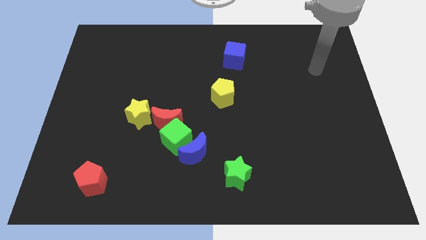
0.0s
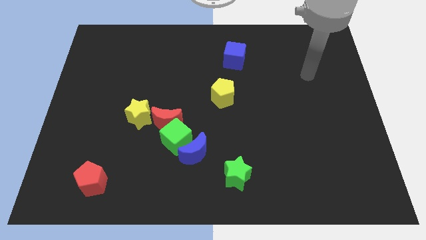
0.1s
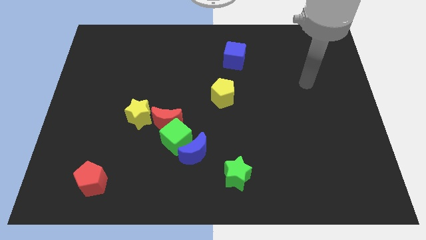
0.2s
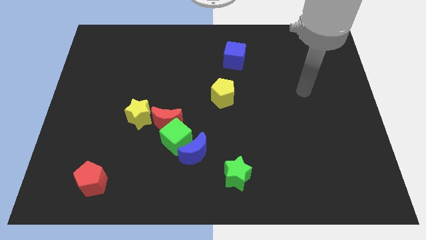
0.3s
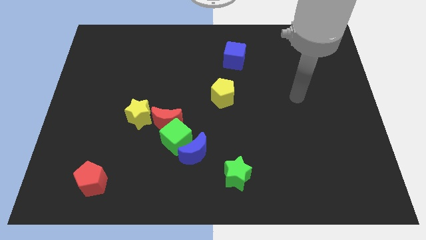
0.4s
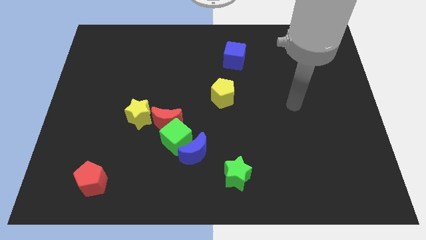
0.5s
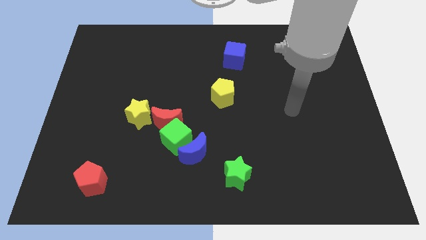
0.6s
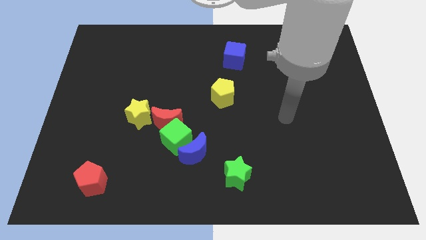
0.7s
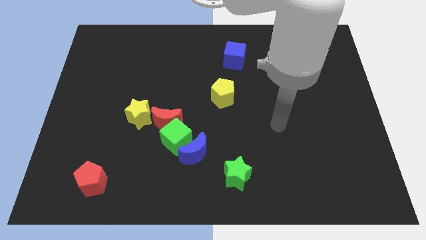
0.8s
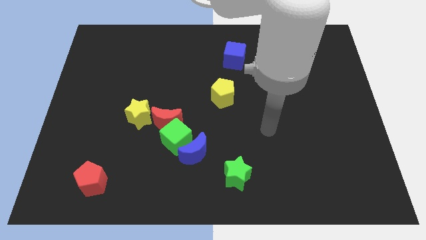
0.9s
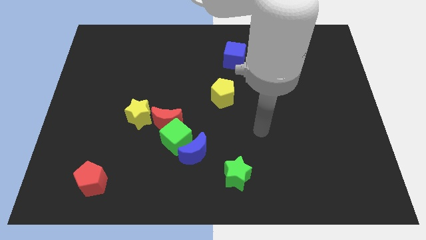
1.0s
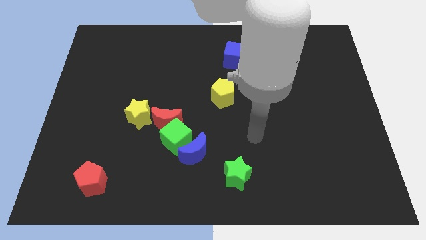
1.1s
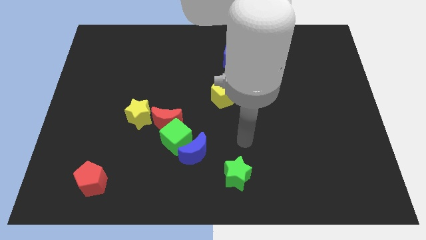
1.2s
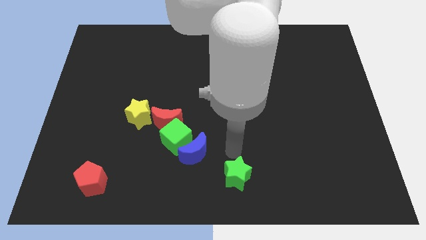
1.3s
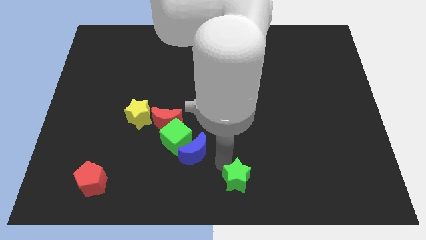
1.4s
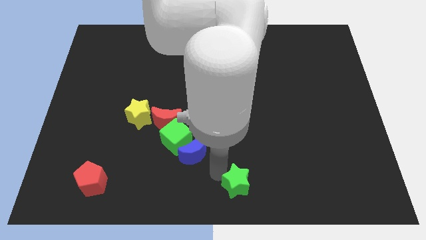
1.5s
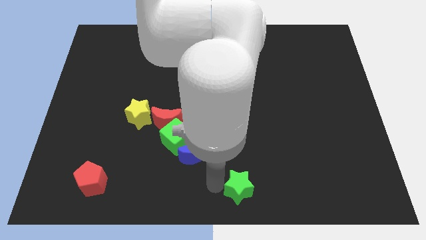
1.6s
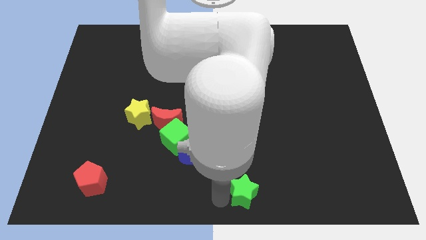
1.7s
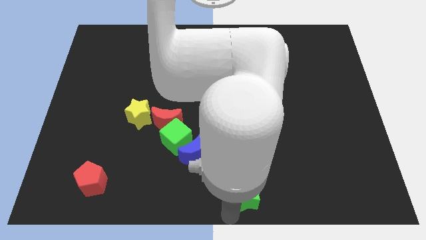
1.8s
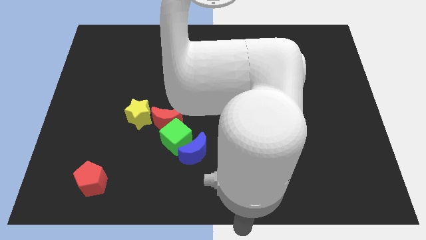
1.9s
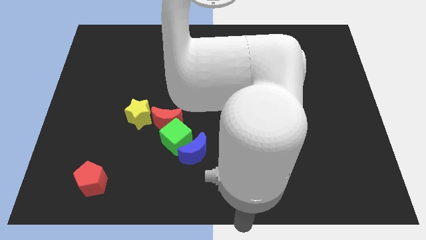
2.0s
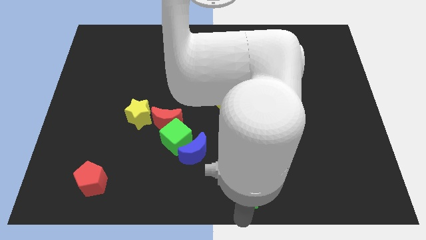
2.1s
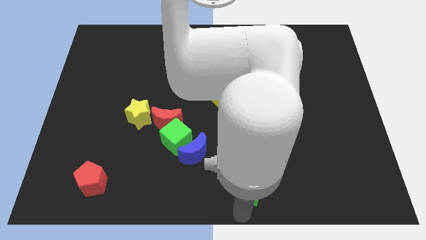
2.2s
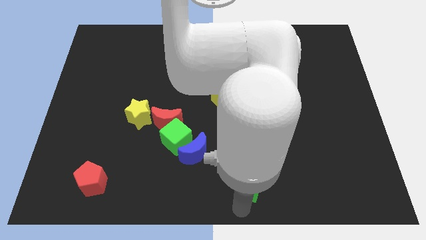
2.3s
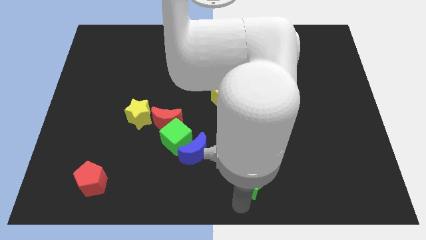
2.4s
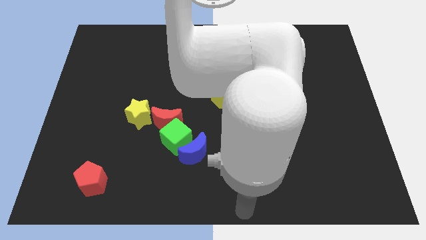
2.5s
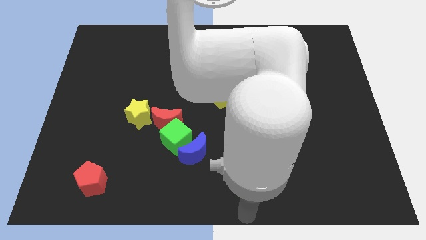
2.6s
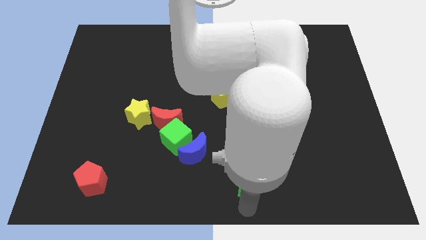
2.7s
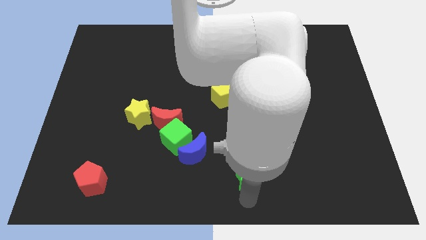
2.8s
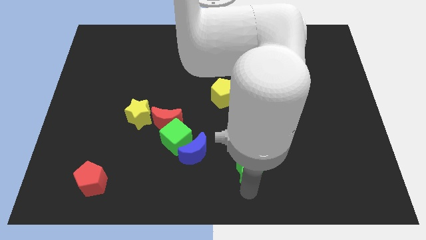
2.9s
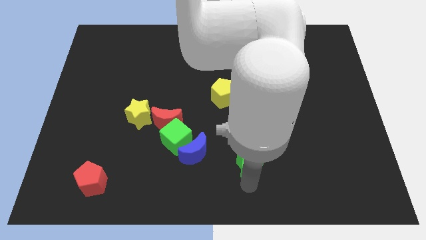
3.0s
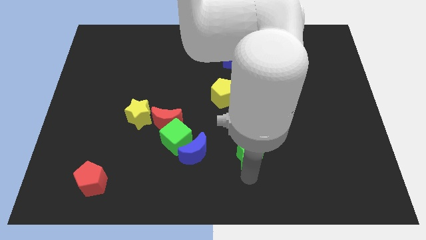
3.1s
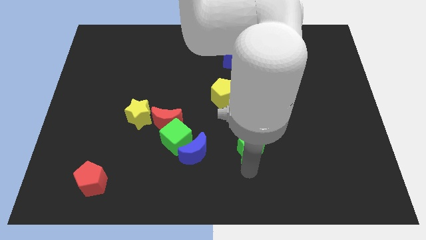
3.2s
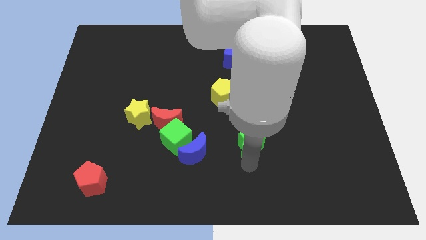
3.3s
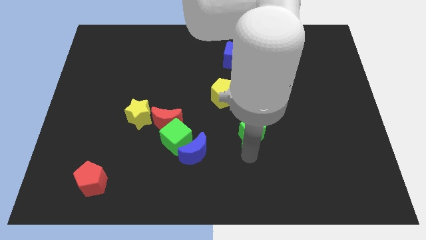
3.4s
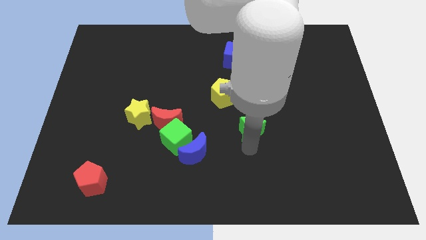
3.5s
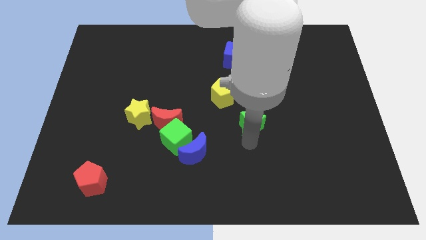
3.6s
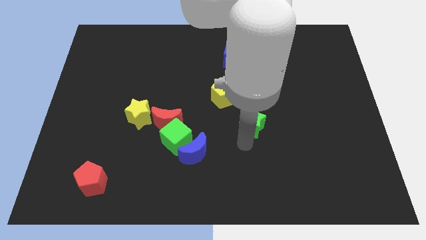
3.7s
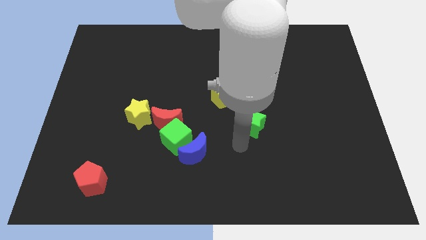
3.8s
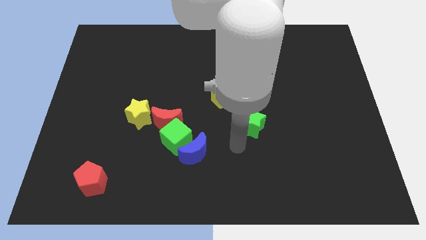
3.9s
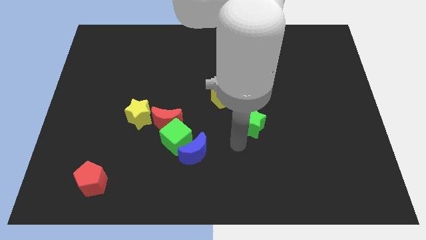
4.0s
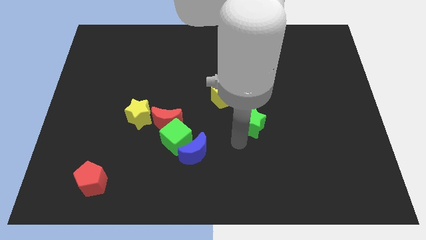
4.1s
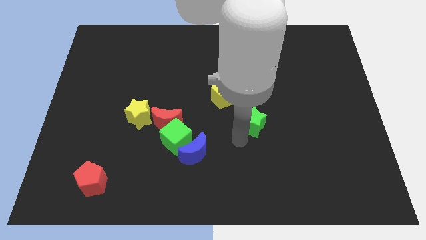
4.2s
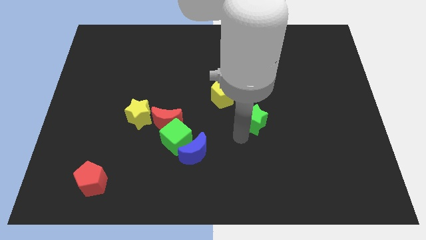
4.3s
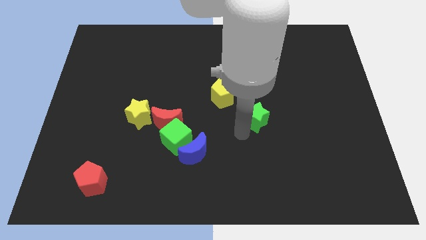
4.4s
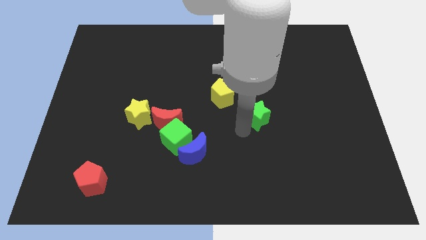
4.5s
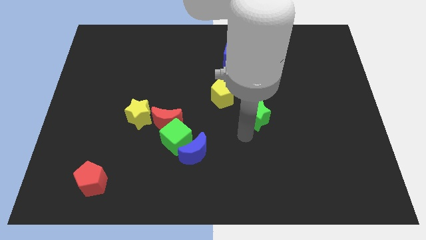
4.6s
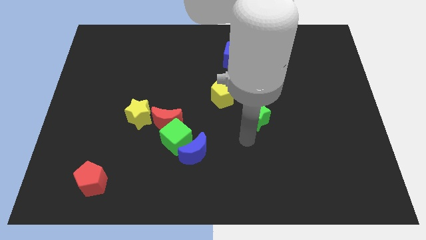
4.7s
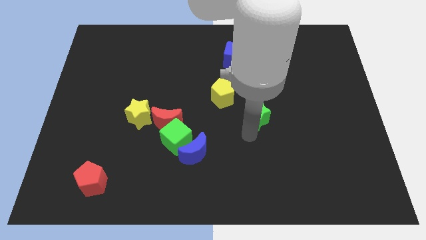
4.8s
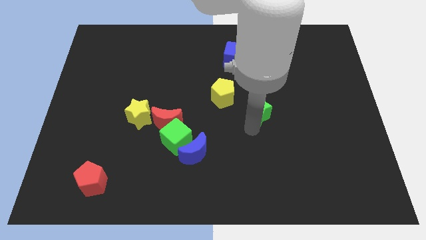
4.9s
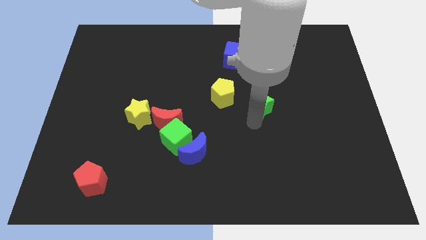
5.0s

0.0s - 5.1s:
slide the green star just right of the yellow pentagon

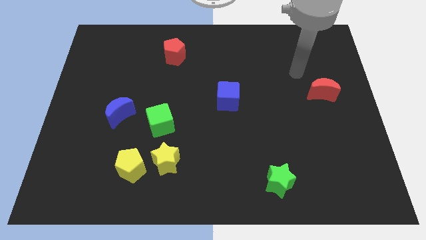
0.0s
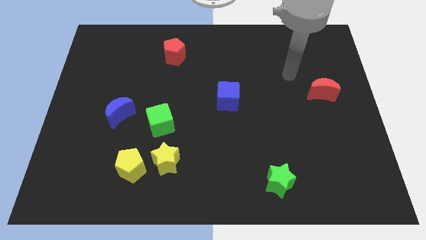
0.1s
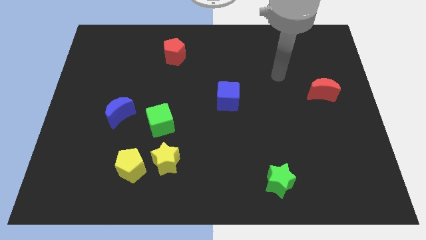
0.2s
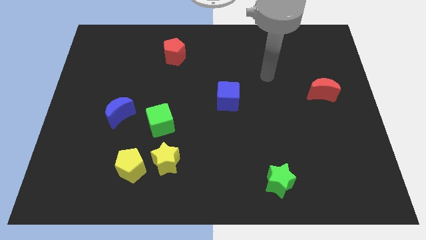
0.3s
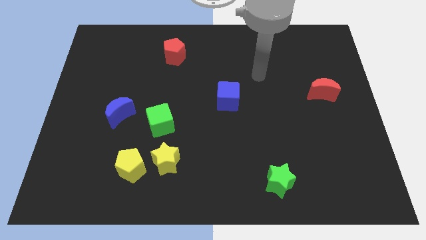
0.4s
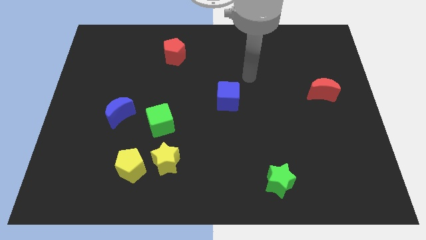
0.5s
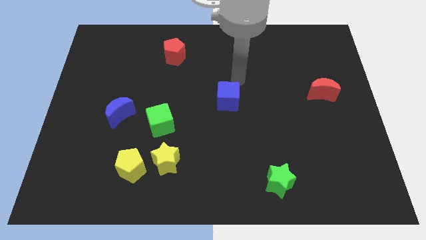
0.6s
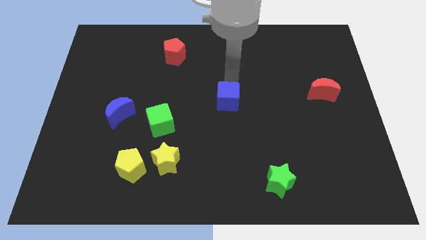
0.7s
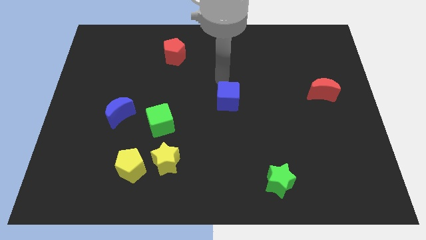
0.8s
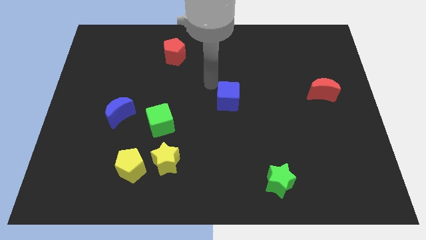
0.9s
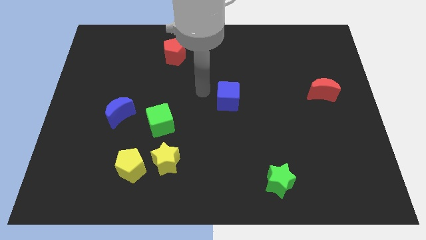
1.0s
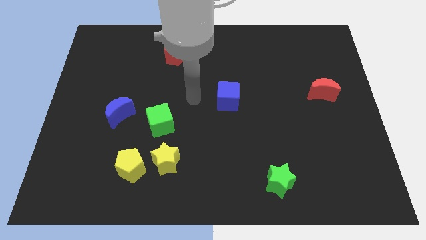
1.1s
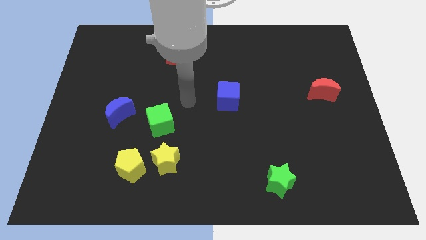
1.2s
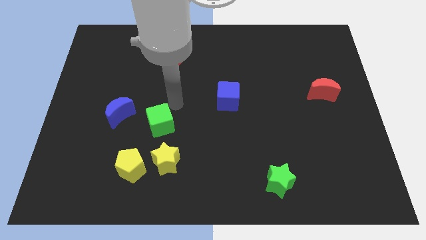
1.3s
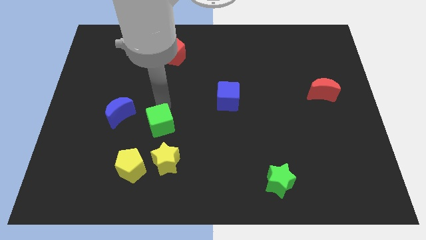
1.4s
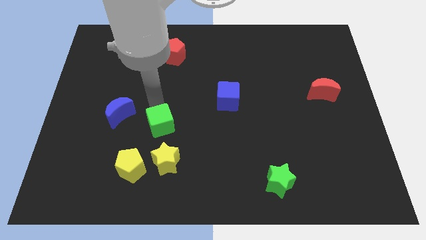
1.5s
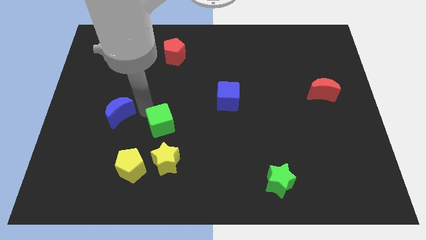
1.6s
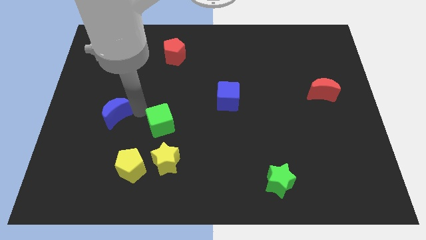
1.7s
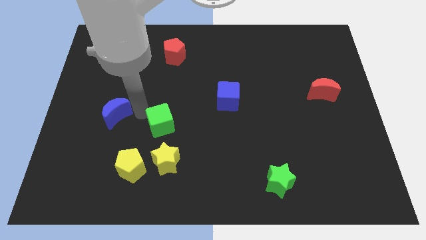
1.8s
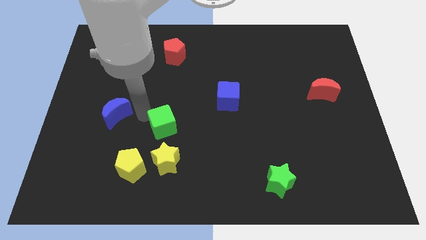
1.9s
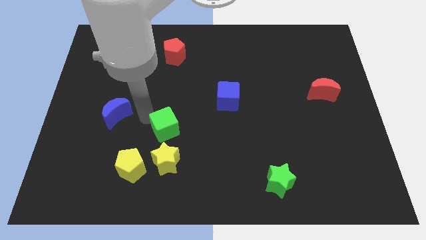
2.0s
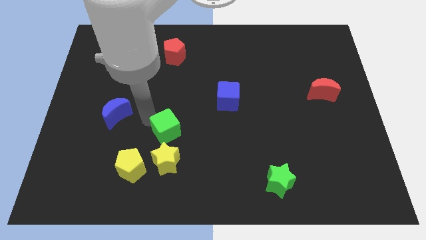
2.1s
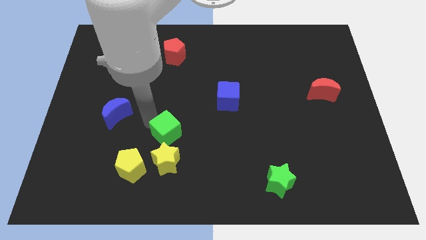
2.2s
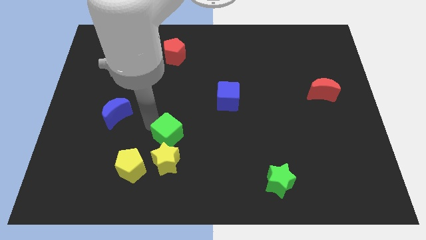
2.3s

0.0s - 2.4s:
move the green cube to the top right side of the yellow star

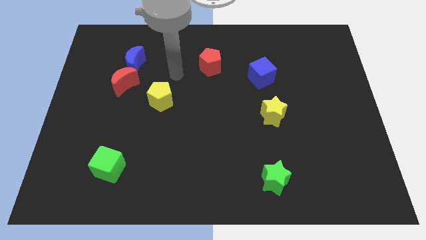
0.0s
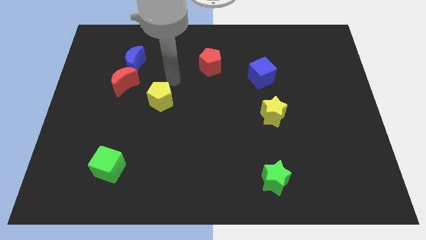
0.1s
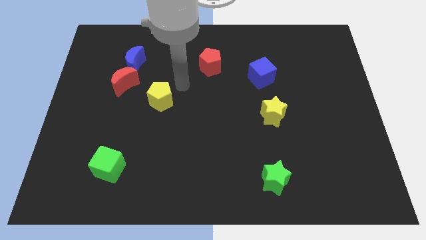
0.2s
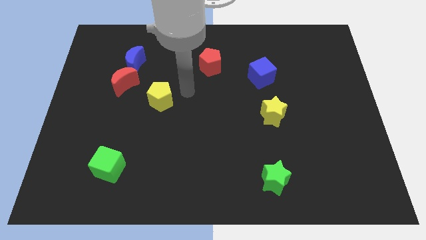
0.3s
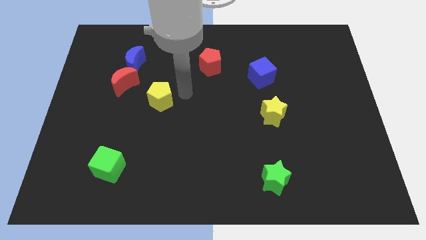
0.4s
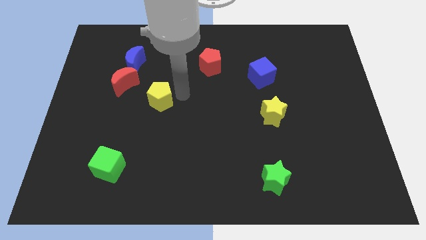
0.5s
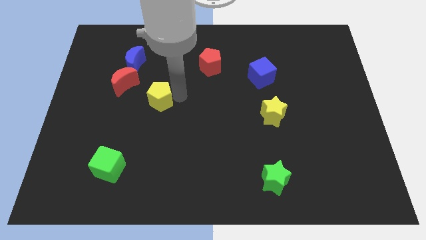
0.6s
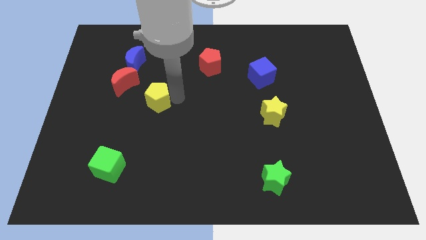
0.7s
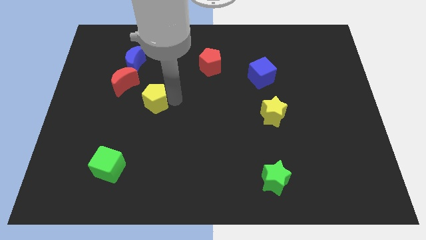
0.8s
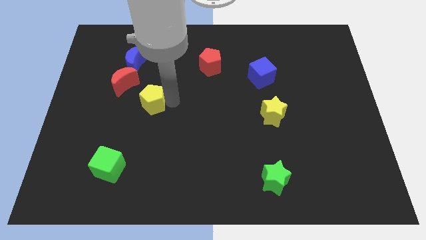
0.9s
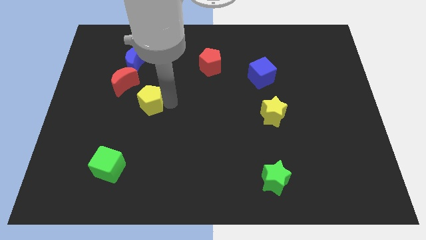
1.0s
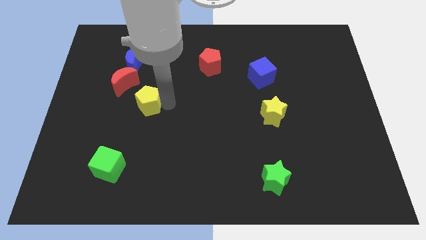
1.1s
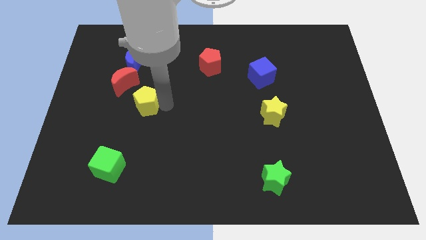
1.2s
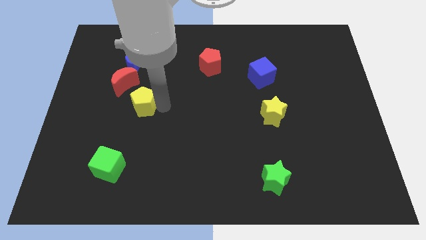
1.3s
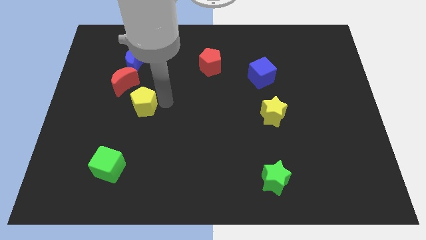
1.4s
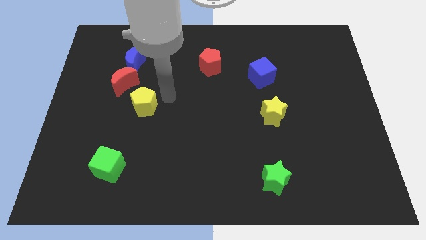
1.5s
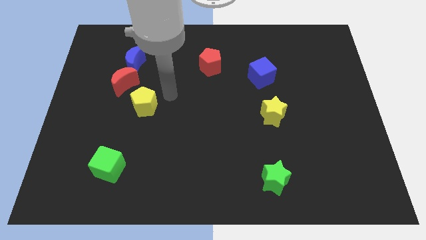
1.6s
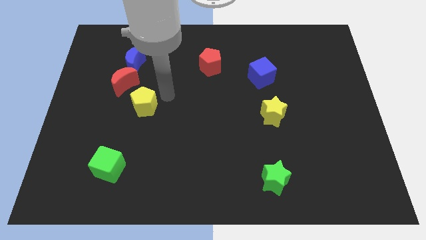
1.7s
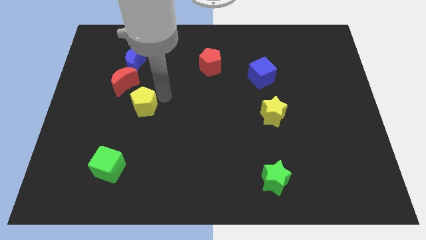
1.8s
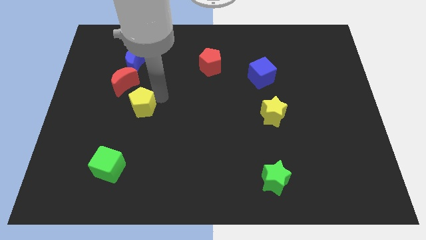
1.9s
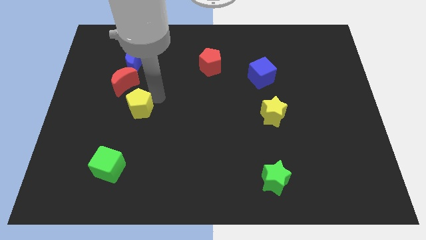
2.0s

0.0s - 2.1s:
slide the yellow pentagon to the bottom of the red moon
